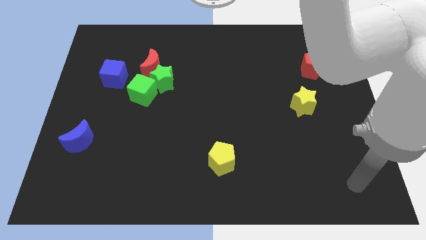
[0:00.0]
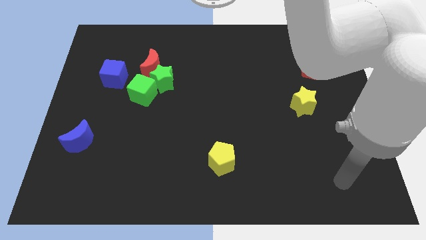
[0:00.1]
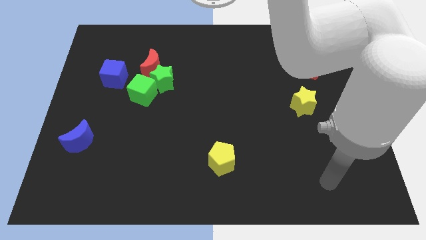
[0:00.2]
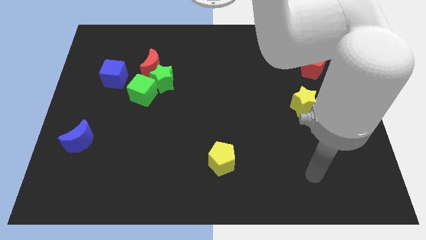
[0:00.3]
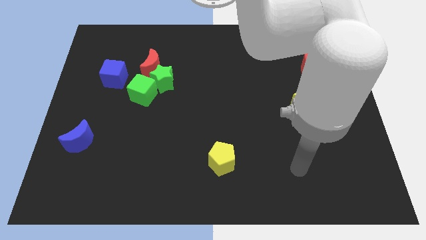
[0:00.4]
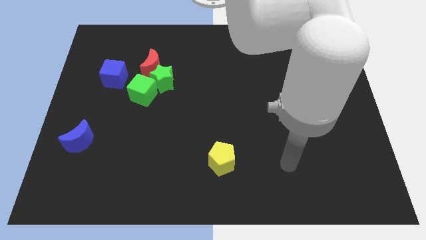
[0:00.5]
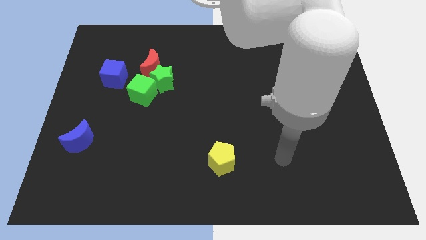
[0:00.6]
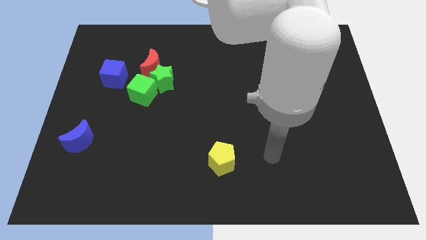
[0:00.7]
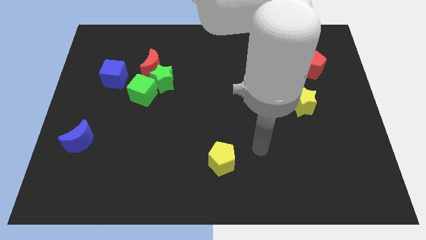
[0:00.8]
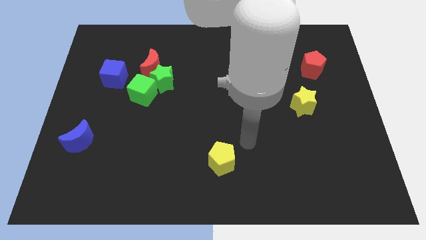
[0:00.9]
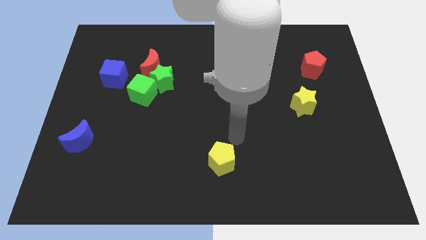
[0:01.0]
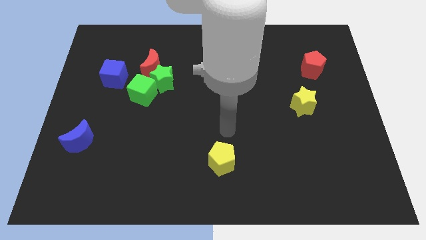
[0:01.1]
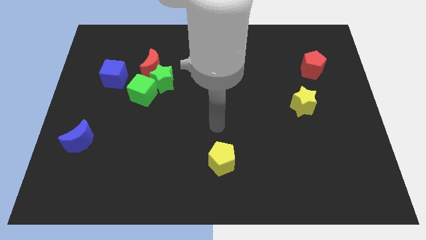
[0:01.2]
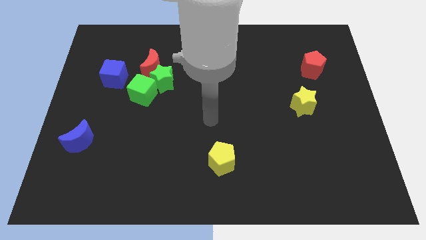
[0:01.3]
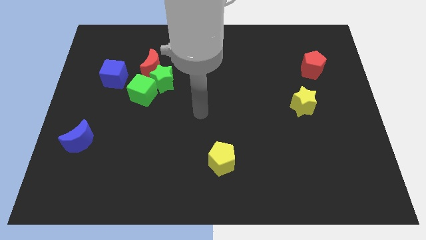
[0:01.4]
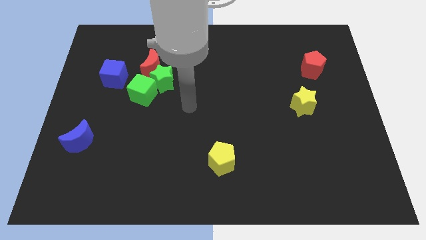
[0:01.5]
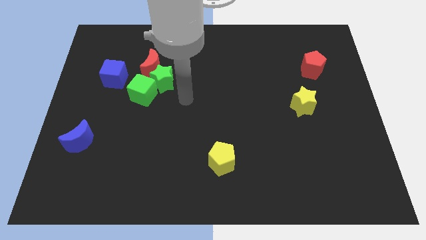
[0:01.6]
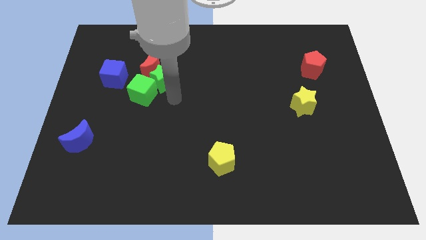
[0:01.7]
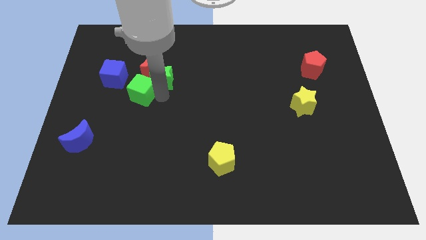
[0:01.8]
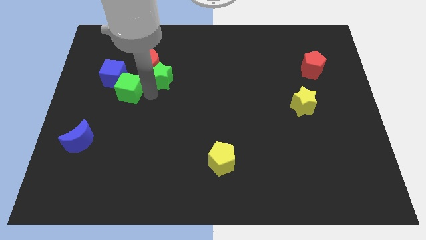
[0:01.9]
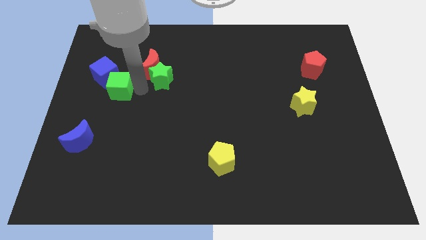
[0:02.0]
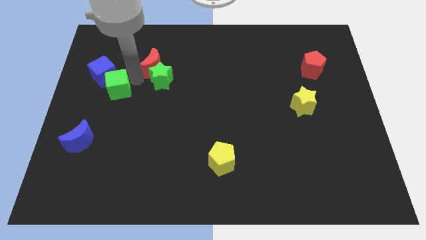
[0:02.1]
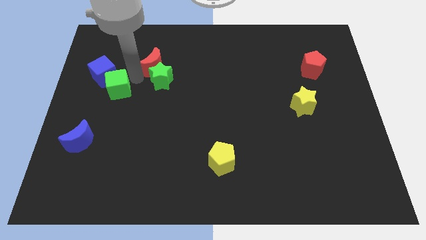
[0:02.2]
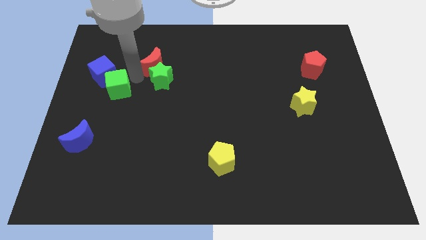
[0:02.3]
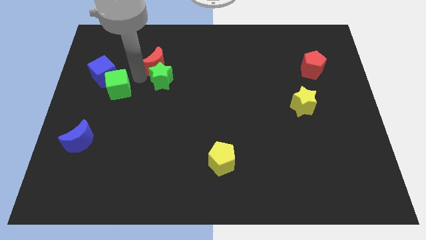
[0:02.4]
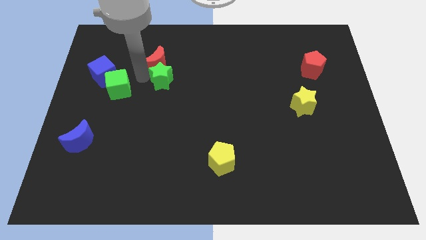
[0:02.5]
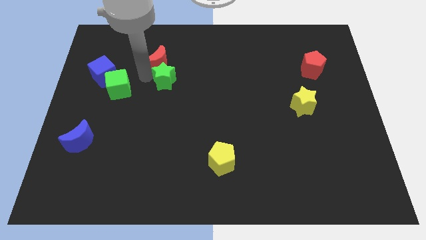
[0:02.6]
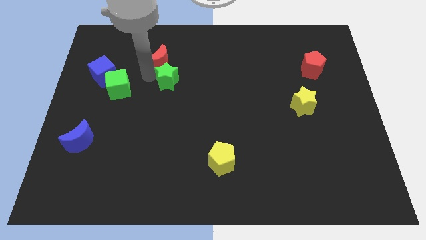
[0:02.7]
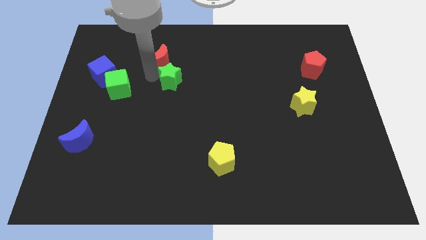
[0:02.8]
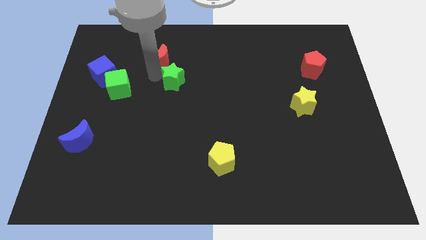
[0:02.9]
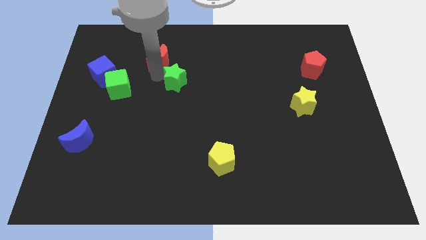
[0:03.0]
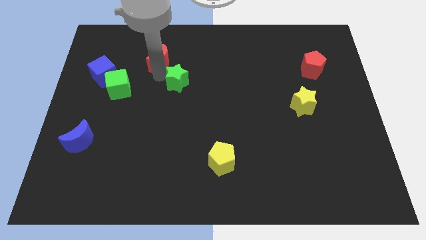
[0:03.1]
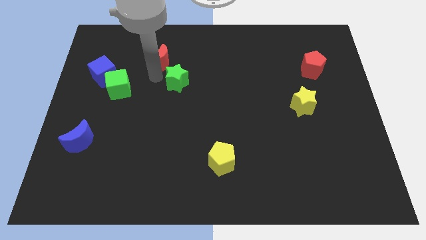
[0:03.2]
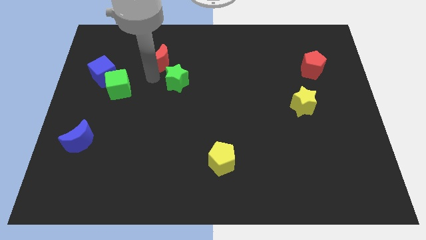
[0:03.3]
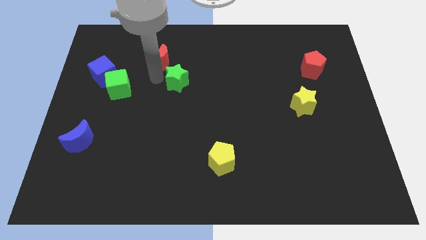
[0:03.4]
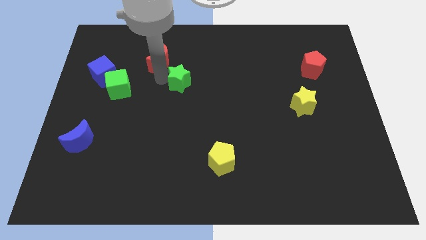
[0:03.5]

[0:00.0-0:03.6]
separate the green star from the red moon and green cube

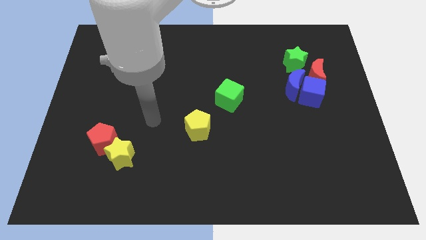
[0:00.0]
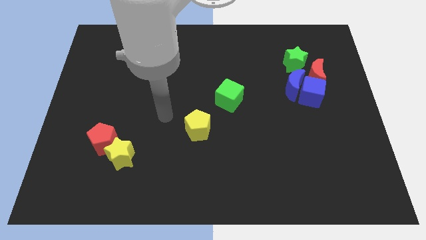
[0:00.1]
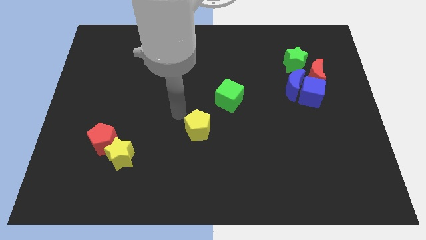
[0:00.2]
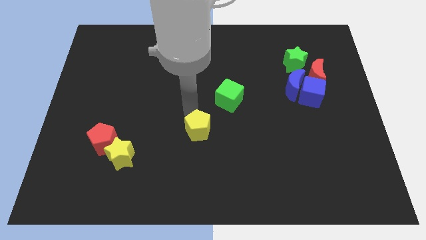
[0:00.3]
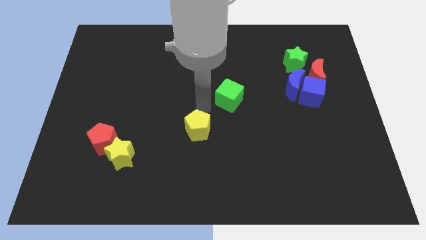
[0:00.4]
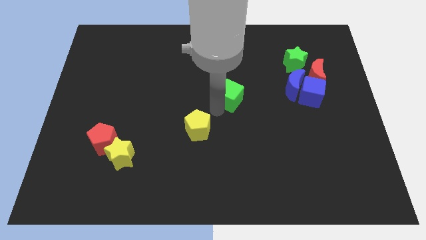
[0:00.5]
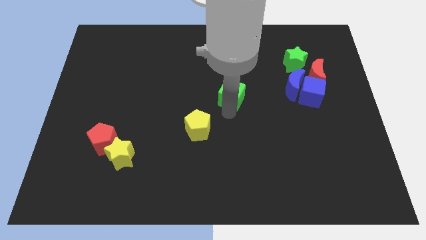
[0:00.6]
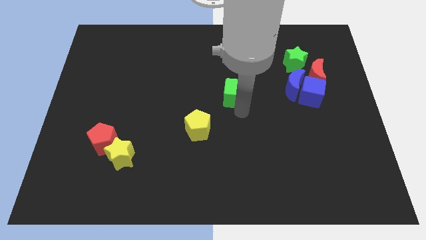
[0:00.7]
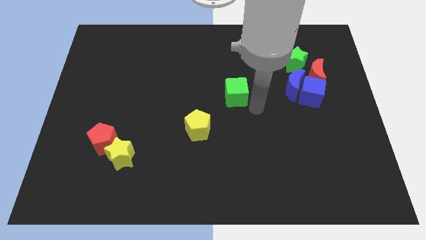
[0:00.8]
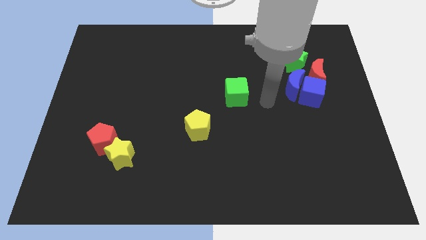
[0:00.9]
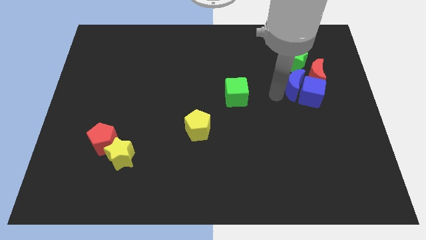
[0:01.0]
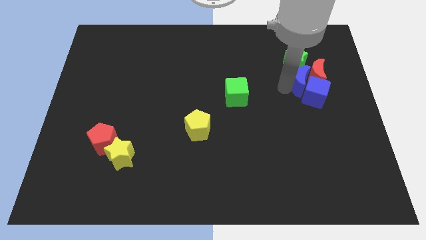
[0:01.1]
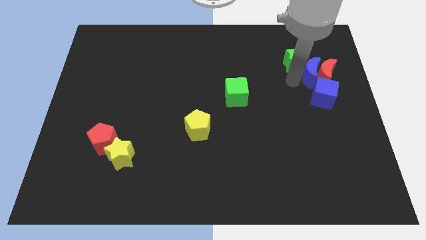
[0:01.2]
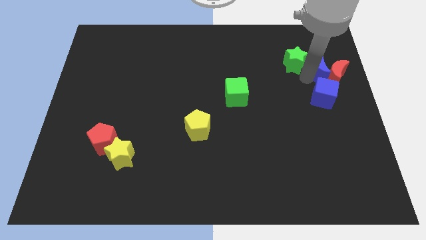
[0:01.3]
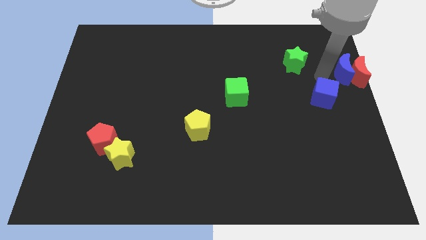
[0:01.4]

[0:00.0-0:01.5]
move the blue cube away from the blue moon and red moon

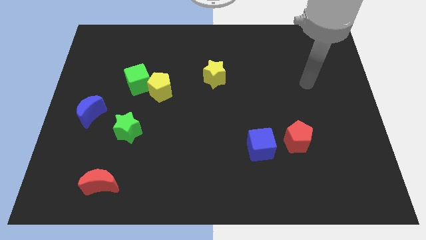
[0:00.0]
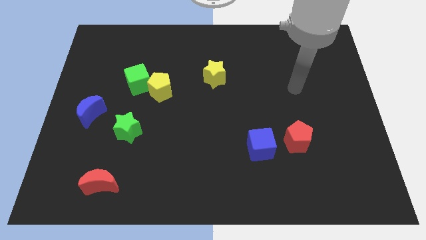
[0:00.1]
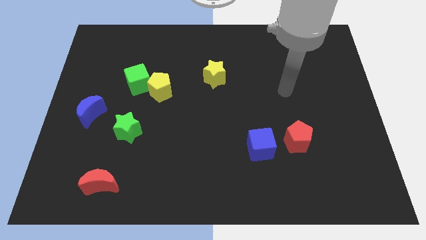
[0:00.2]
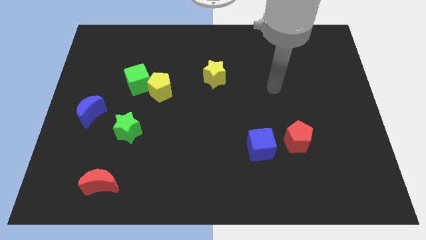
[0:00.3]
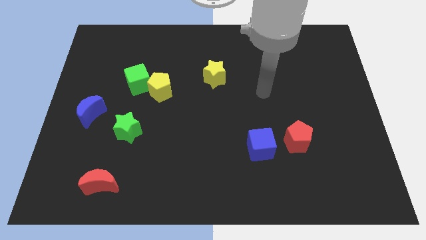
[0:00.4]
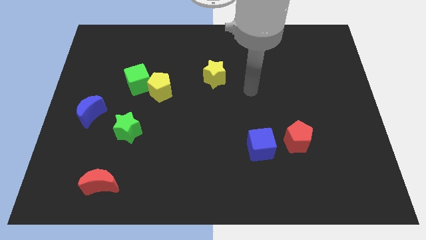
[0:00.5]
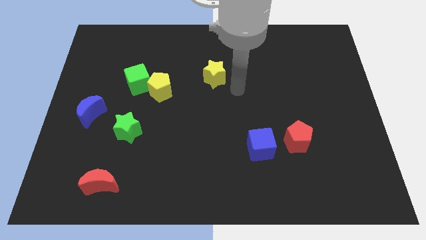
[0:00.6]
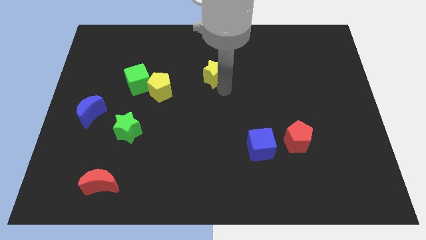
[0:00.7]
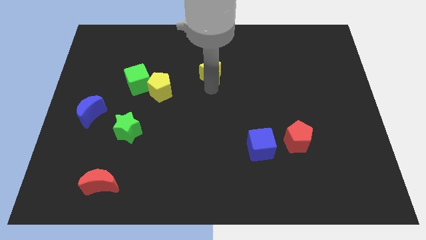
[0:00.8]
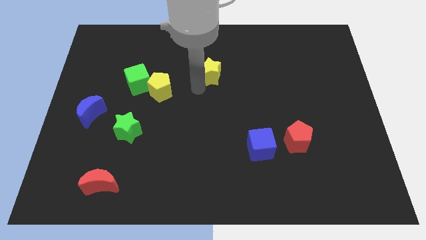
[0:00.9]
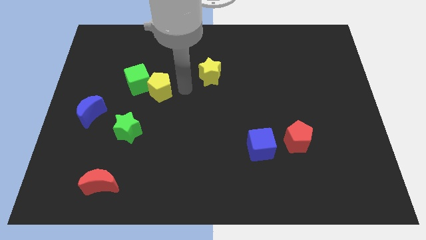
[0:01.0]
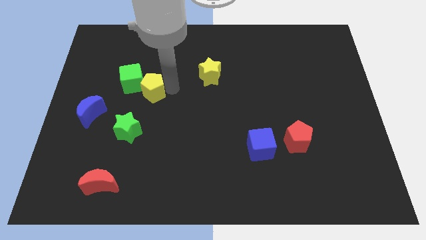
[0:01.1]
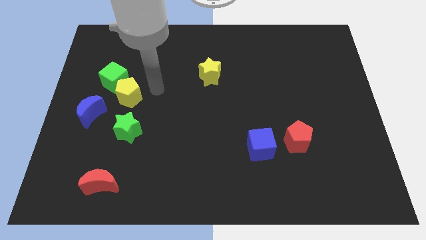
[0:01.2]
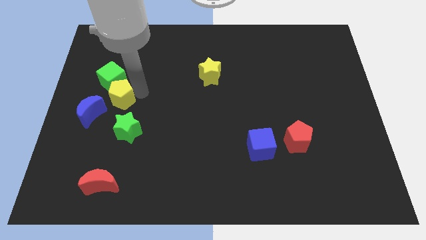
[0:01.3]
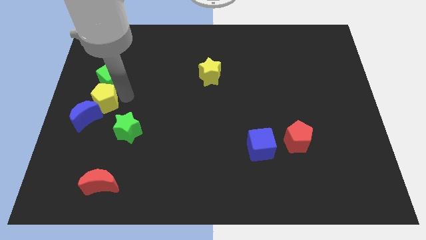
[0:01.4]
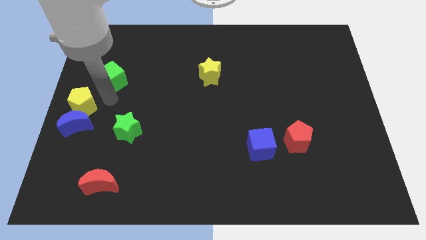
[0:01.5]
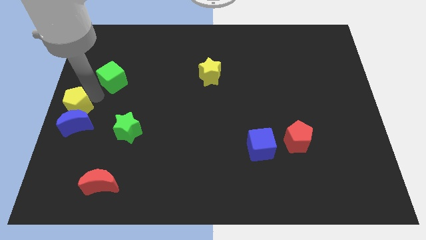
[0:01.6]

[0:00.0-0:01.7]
separate the green cube from the yellow pentagon

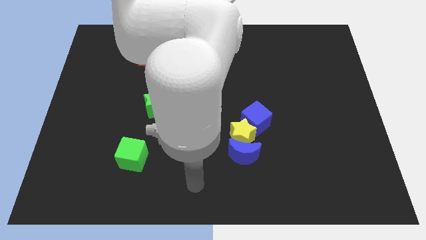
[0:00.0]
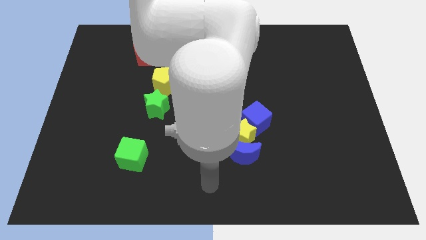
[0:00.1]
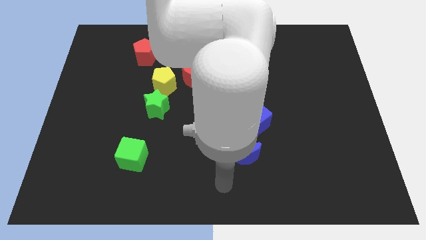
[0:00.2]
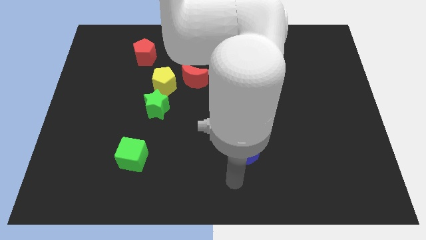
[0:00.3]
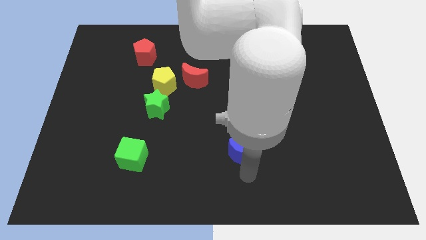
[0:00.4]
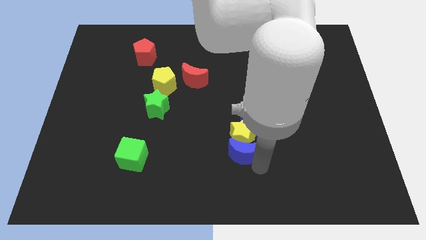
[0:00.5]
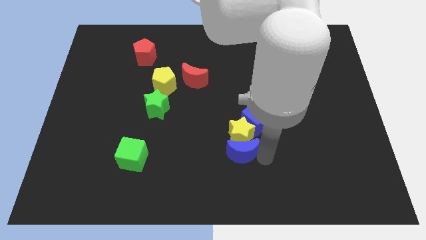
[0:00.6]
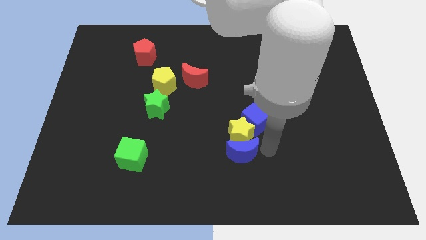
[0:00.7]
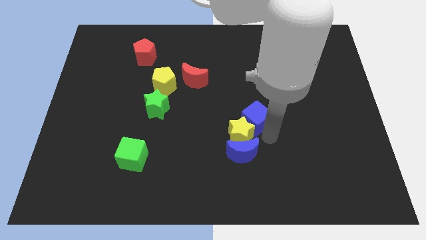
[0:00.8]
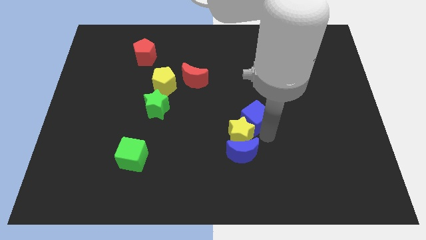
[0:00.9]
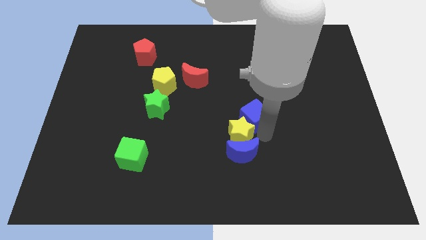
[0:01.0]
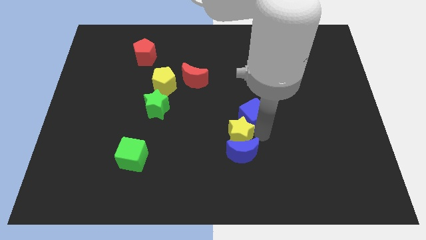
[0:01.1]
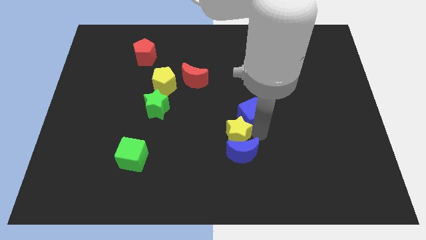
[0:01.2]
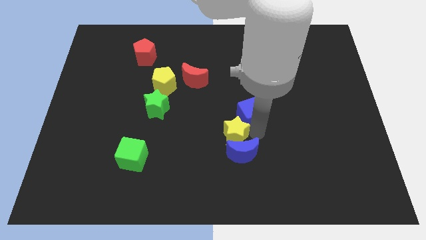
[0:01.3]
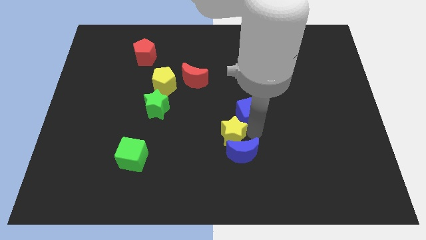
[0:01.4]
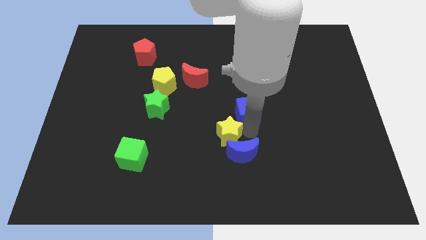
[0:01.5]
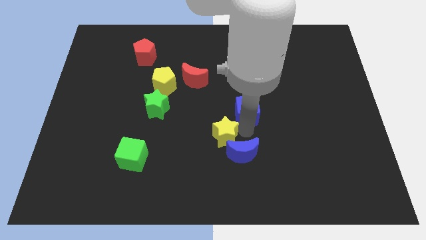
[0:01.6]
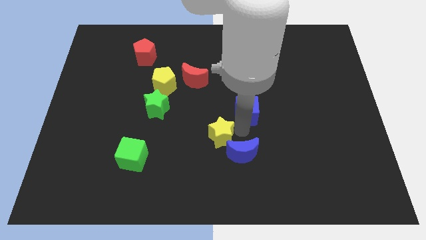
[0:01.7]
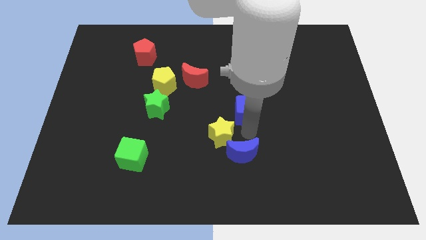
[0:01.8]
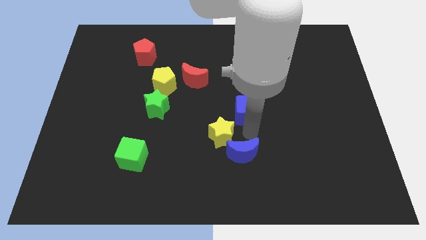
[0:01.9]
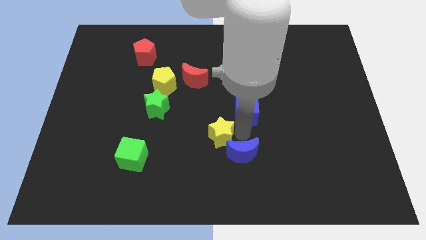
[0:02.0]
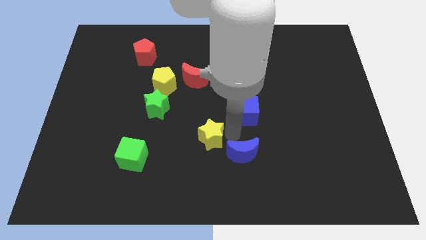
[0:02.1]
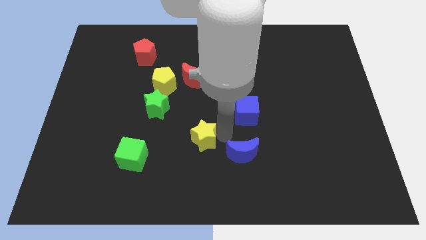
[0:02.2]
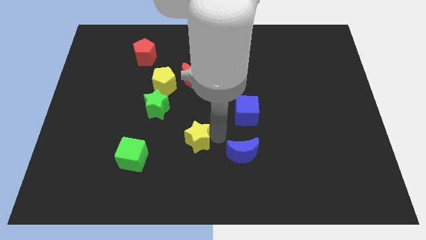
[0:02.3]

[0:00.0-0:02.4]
move the yellow star away from the blue moon and blue cube

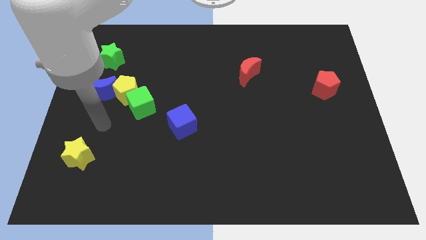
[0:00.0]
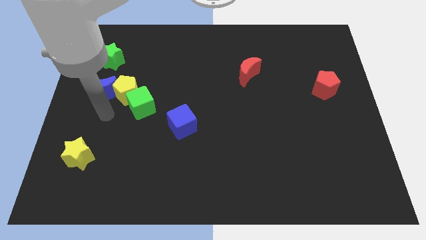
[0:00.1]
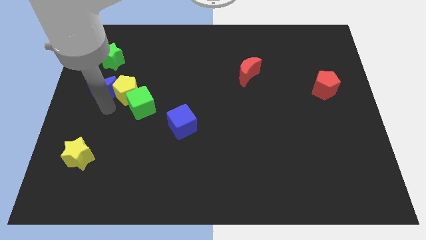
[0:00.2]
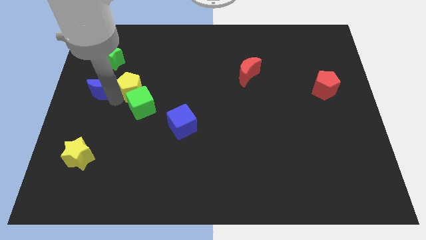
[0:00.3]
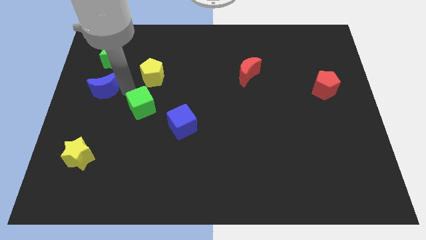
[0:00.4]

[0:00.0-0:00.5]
pull the green cube apart from the yellow pentagon
